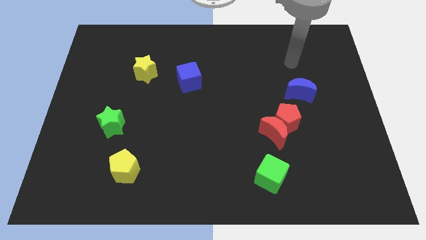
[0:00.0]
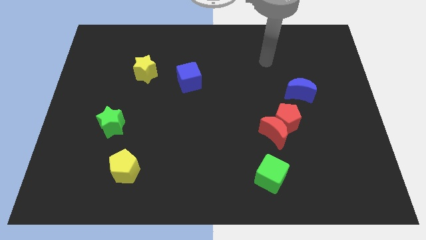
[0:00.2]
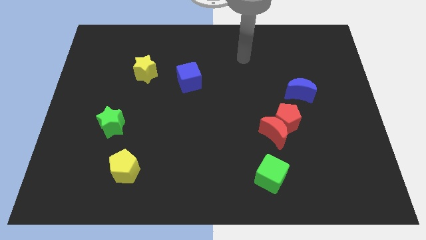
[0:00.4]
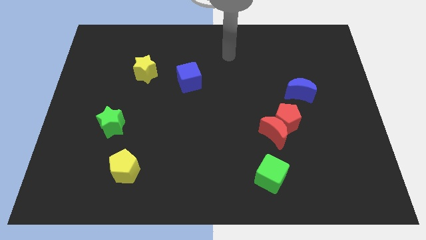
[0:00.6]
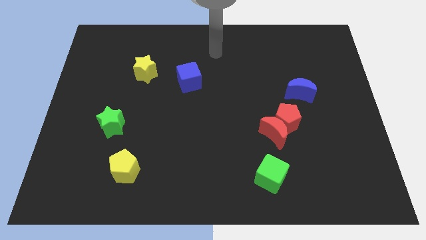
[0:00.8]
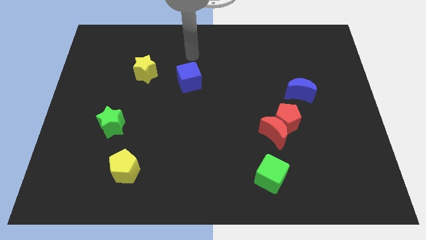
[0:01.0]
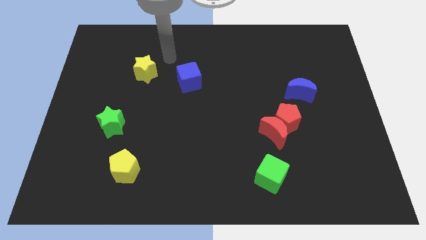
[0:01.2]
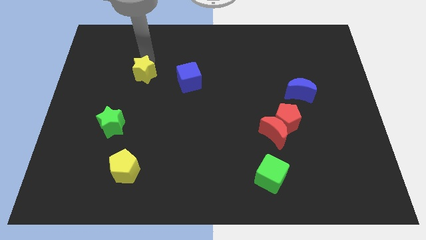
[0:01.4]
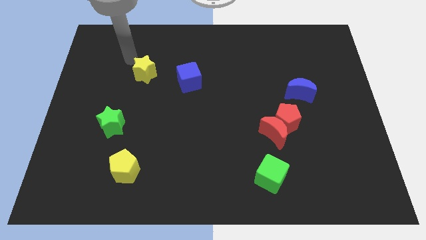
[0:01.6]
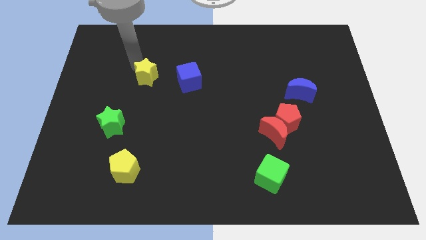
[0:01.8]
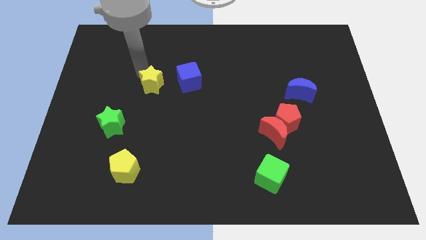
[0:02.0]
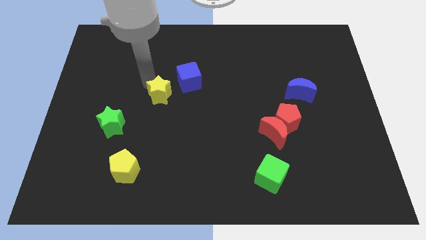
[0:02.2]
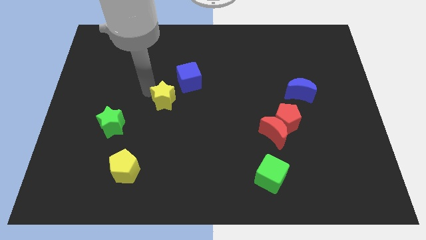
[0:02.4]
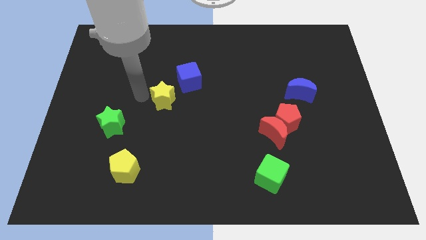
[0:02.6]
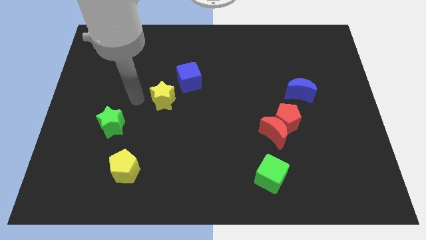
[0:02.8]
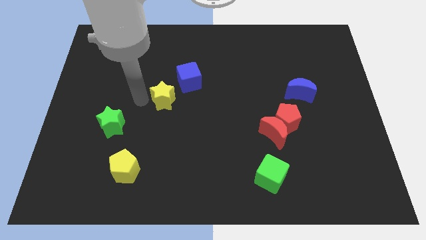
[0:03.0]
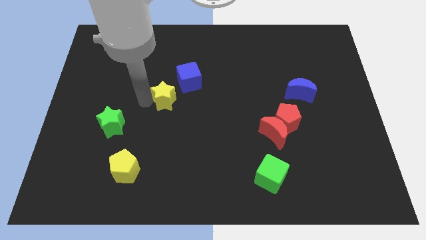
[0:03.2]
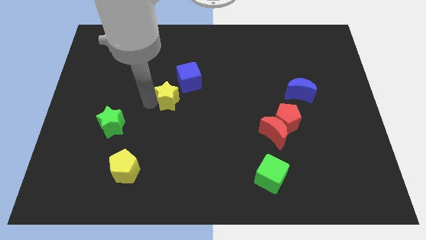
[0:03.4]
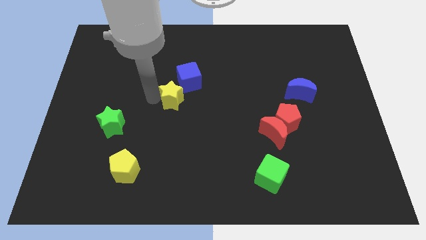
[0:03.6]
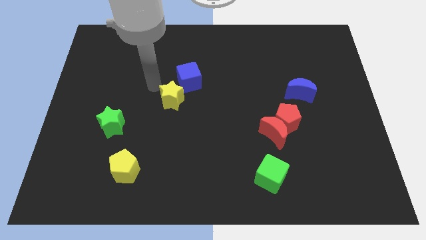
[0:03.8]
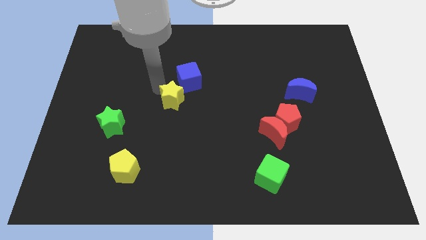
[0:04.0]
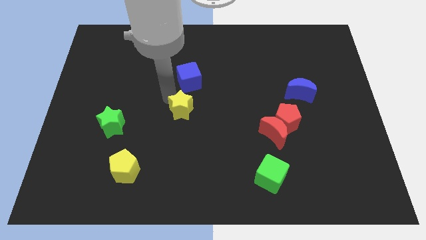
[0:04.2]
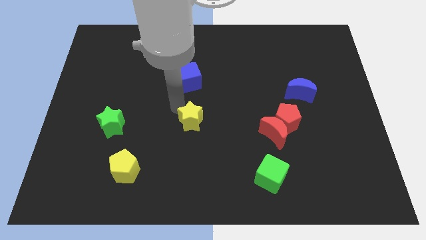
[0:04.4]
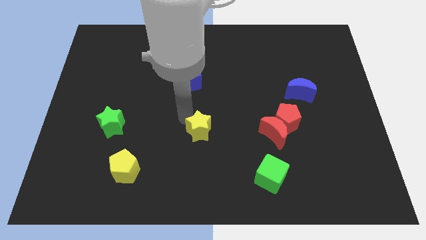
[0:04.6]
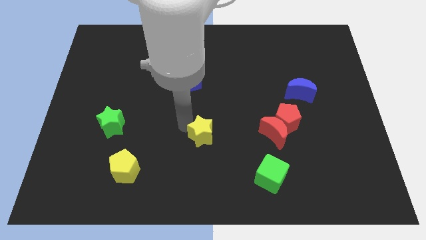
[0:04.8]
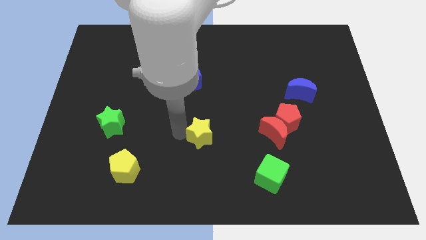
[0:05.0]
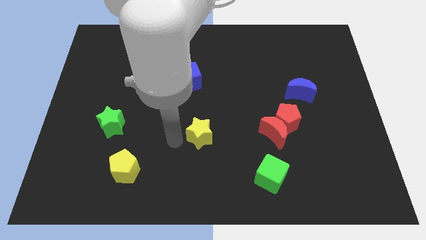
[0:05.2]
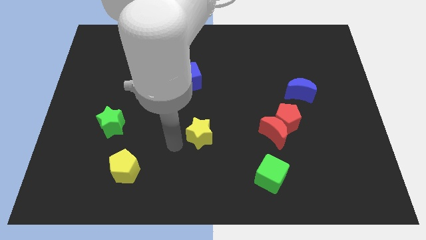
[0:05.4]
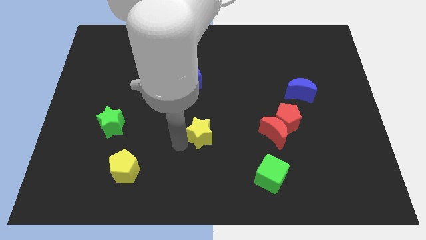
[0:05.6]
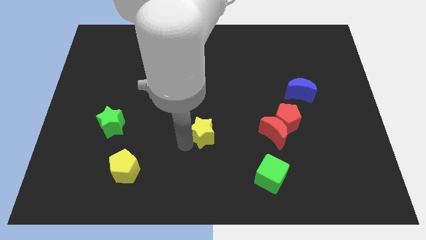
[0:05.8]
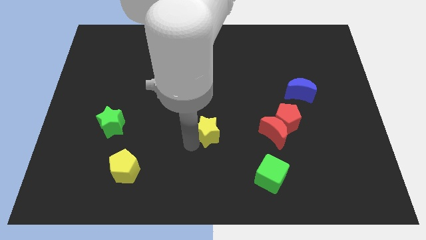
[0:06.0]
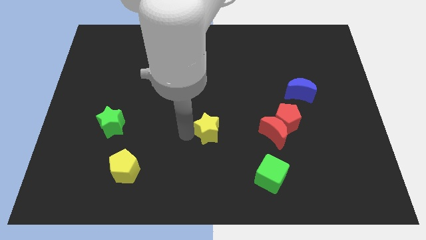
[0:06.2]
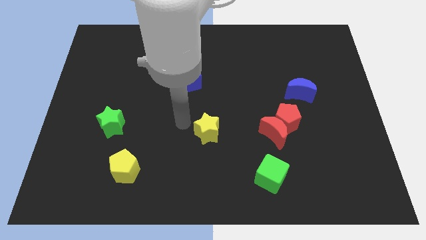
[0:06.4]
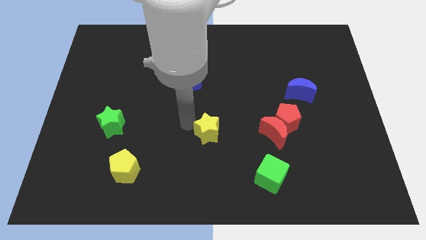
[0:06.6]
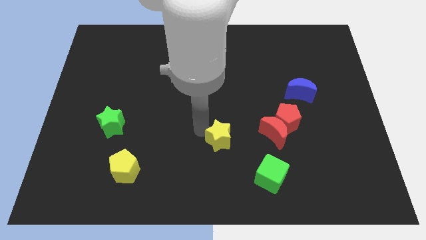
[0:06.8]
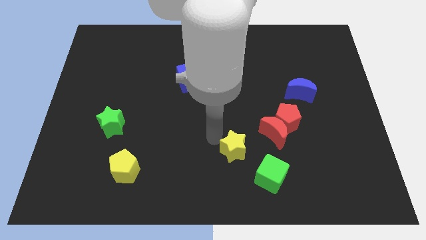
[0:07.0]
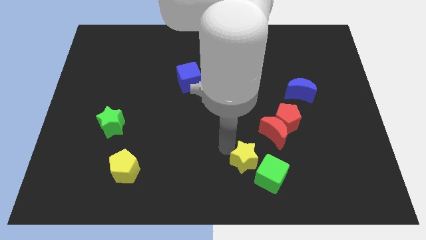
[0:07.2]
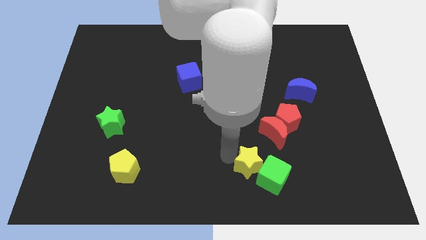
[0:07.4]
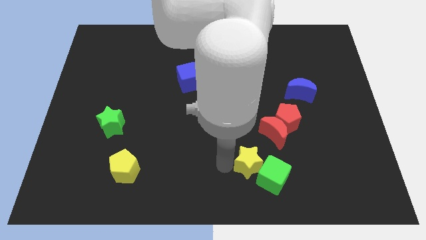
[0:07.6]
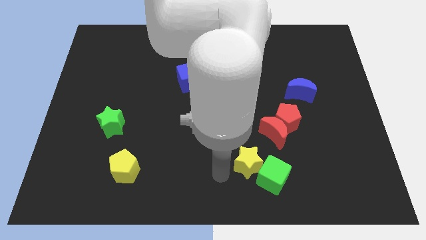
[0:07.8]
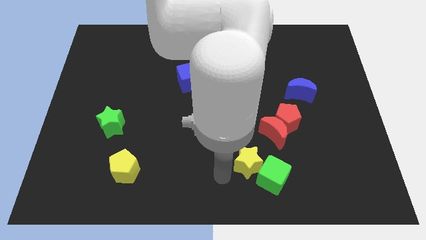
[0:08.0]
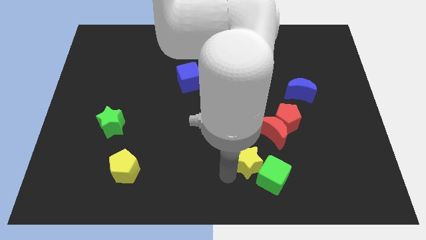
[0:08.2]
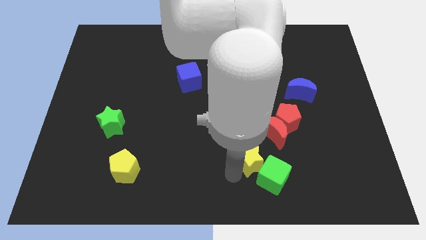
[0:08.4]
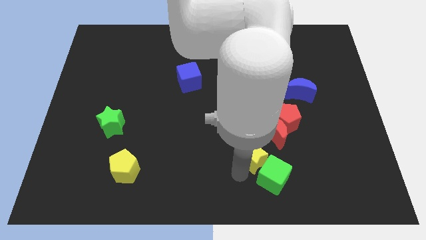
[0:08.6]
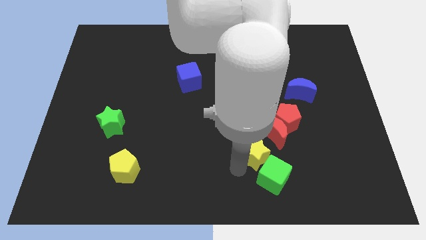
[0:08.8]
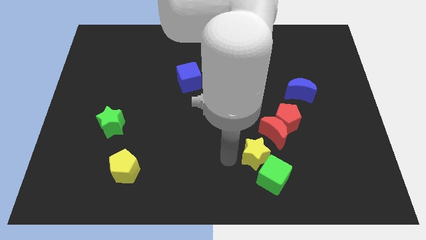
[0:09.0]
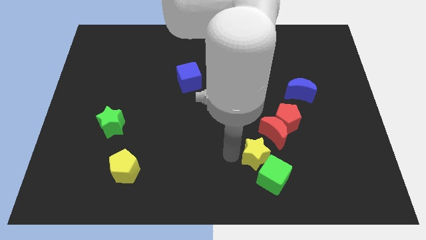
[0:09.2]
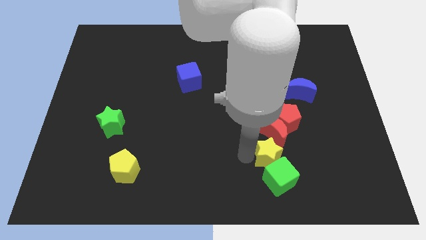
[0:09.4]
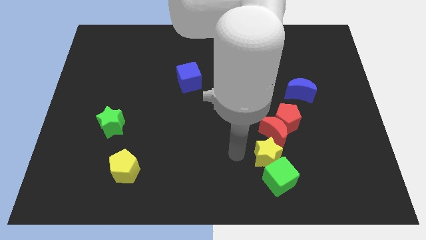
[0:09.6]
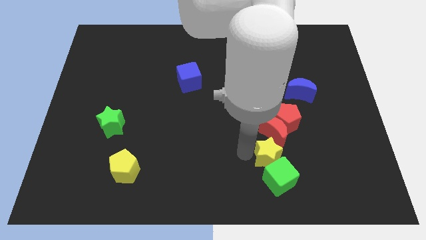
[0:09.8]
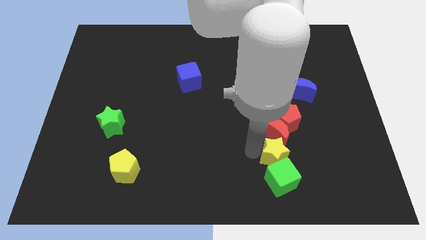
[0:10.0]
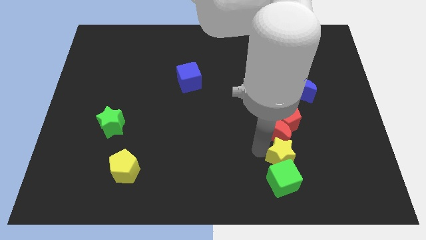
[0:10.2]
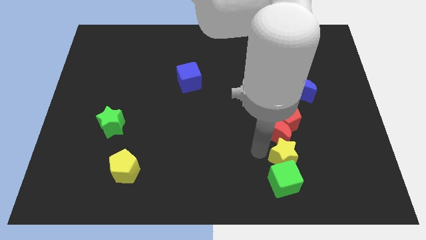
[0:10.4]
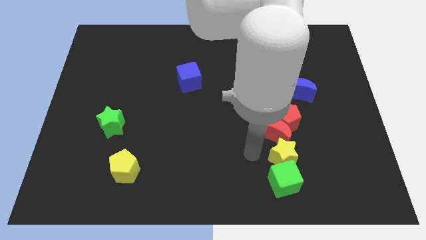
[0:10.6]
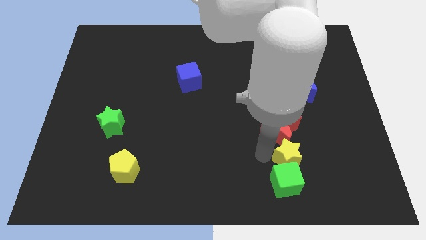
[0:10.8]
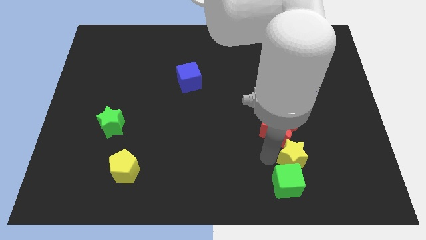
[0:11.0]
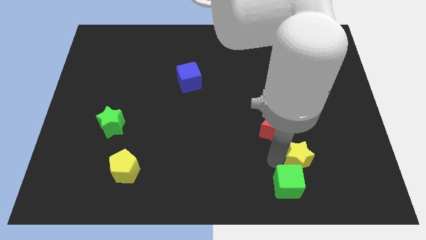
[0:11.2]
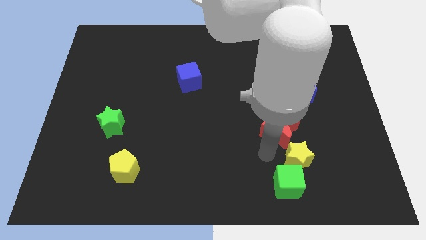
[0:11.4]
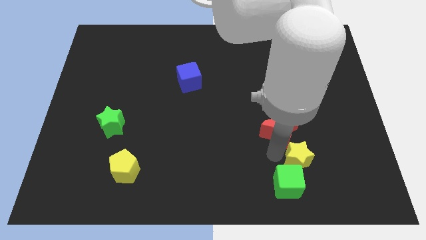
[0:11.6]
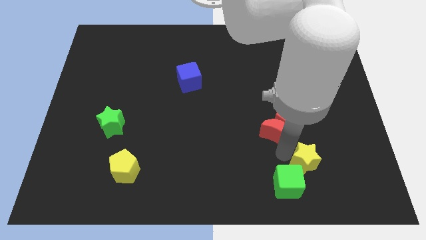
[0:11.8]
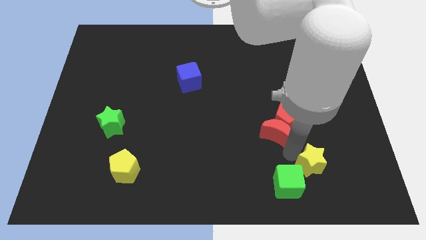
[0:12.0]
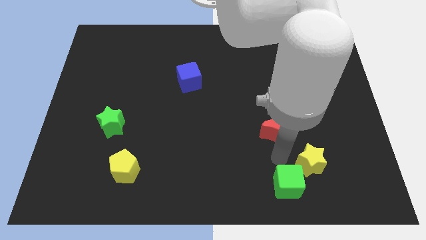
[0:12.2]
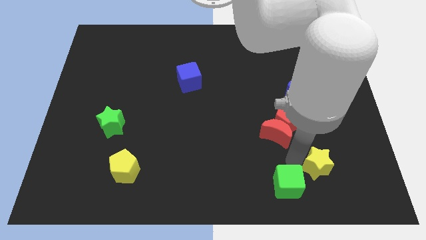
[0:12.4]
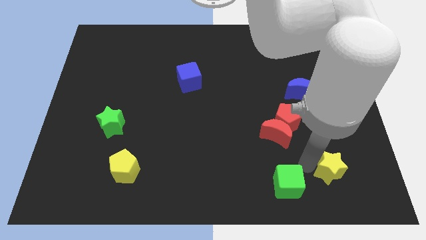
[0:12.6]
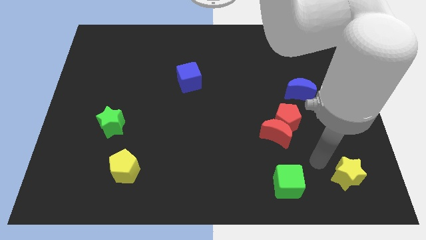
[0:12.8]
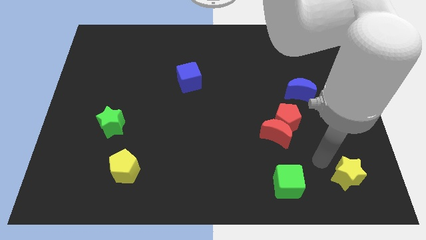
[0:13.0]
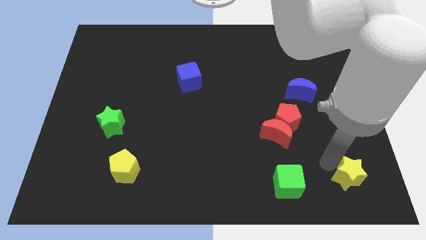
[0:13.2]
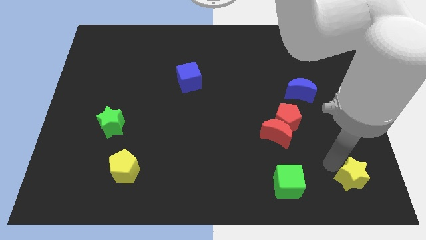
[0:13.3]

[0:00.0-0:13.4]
slide the yellow star to the bottom right
